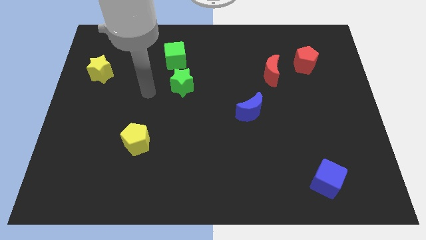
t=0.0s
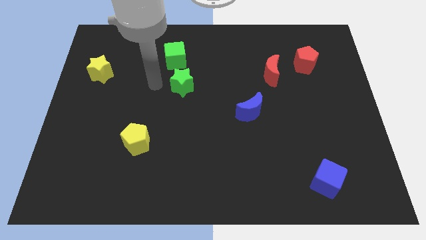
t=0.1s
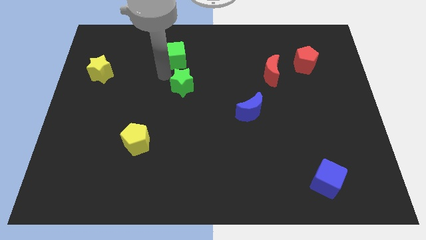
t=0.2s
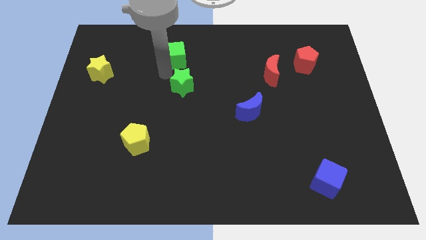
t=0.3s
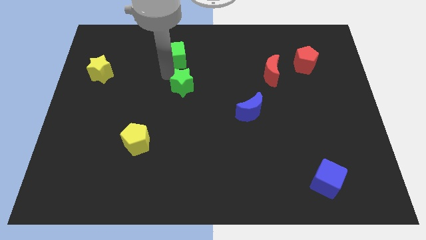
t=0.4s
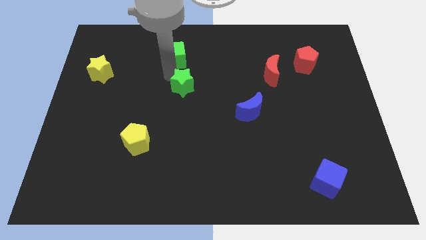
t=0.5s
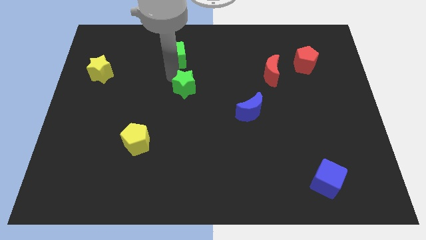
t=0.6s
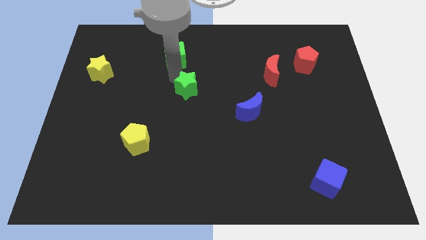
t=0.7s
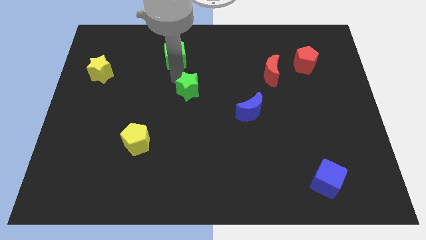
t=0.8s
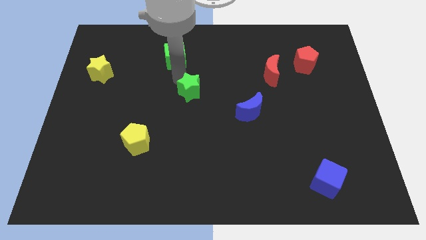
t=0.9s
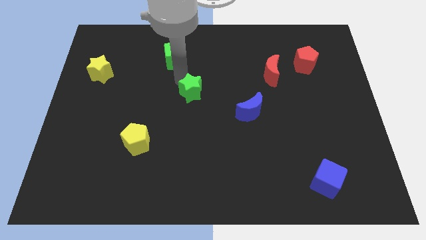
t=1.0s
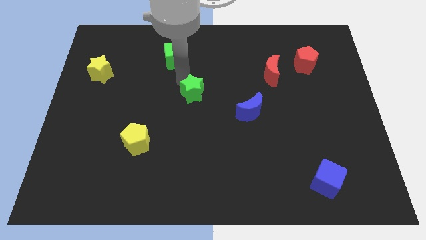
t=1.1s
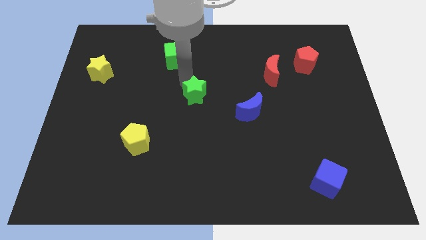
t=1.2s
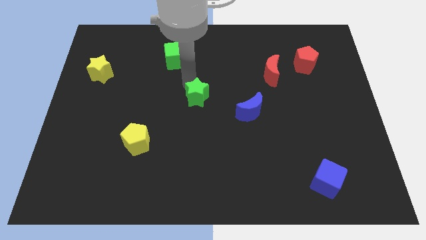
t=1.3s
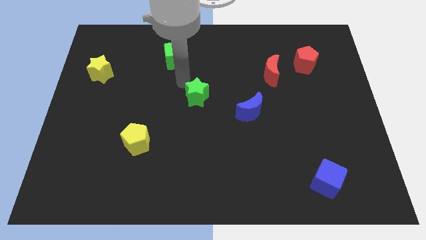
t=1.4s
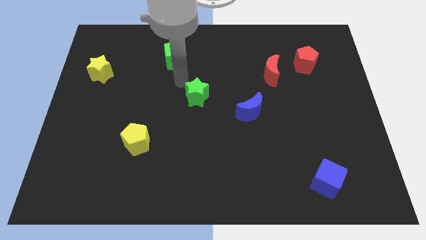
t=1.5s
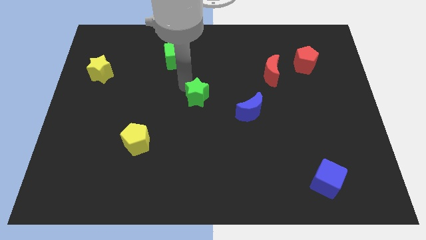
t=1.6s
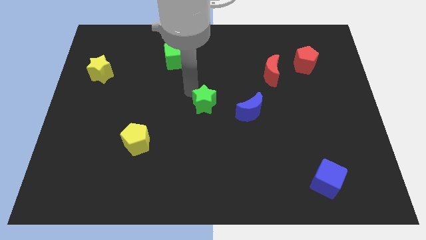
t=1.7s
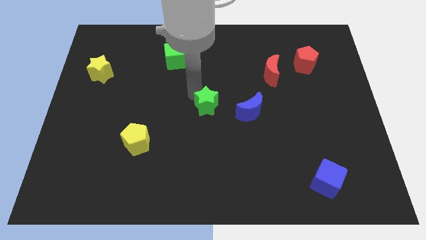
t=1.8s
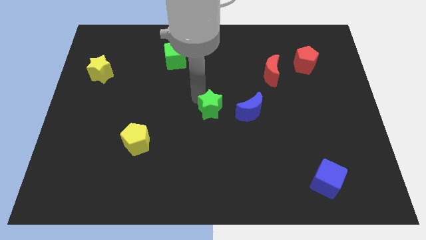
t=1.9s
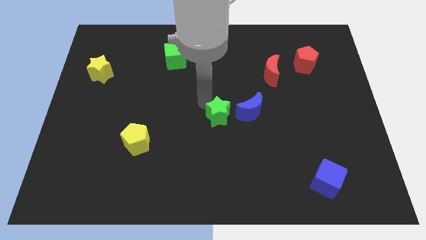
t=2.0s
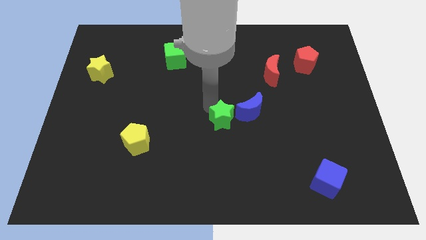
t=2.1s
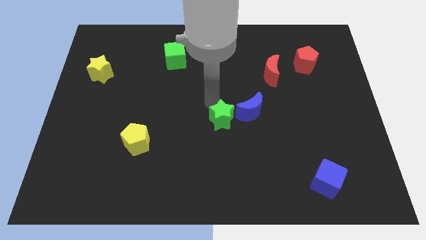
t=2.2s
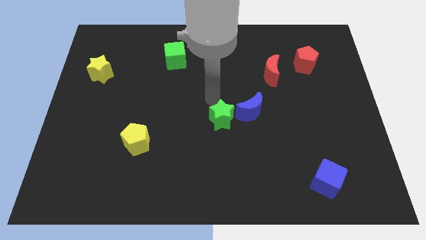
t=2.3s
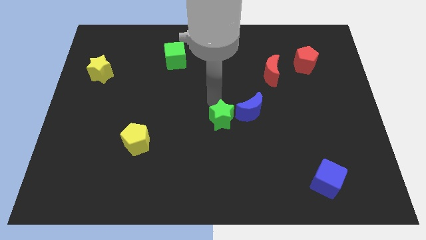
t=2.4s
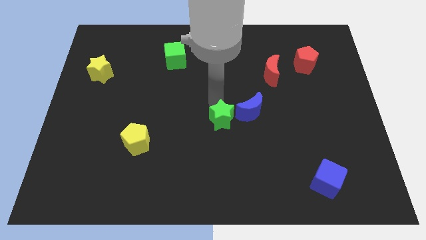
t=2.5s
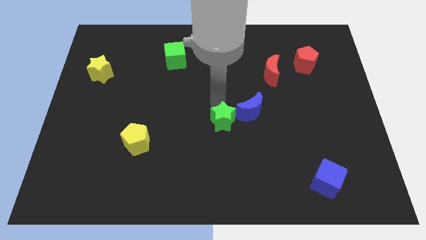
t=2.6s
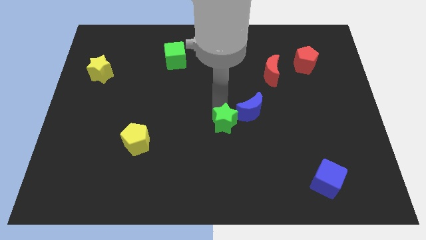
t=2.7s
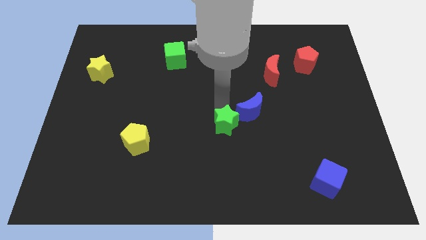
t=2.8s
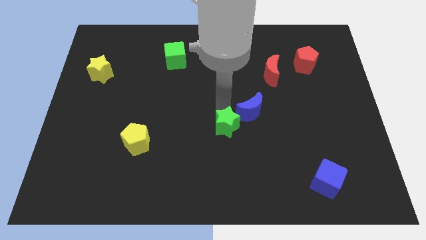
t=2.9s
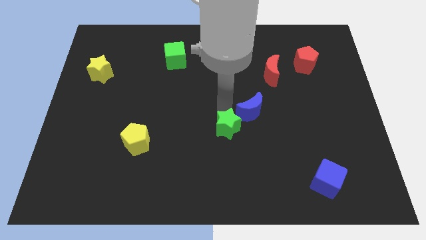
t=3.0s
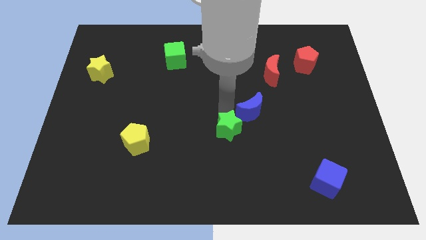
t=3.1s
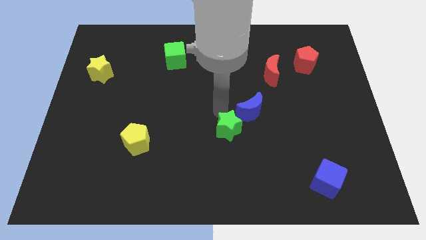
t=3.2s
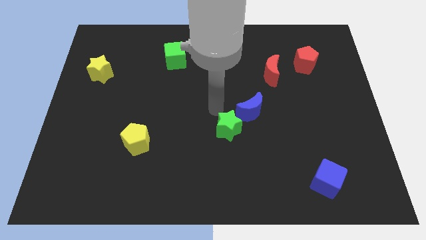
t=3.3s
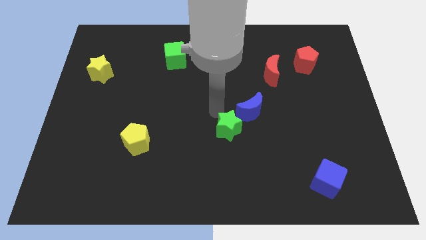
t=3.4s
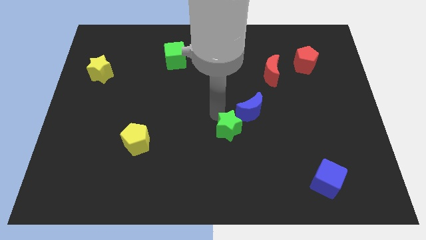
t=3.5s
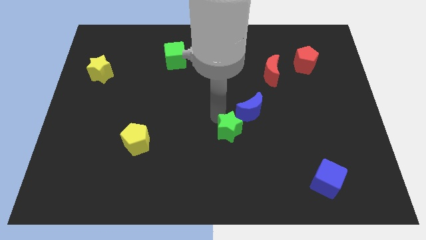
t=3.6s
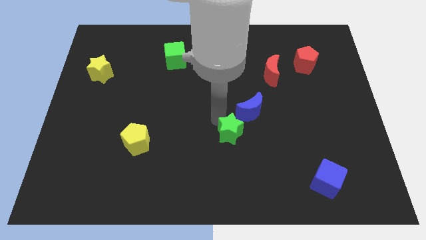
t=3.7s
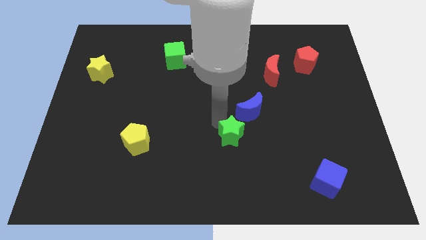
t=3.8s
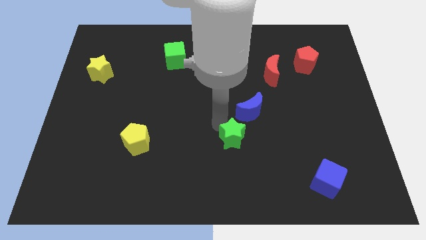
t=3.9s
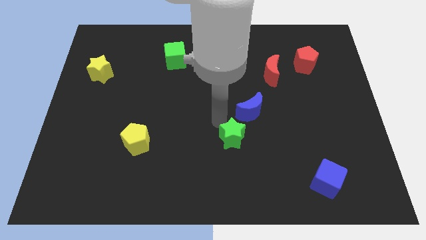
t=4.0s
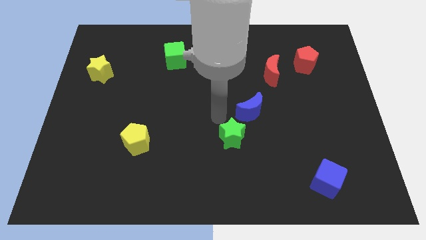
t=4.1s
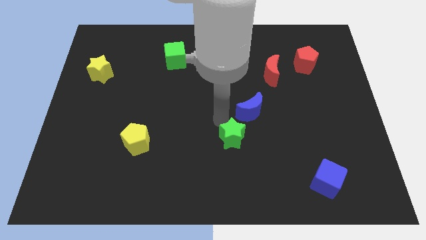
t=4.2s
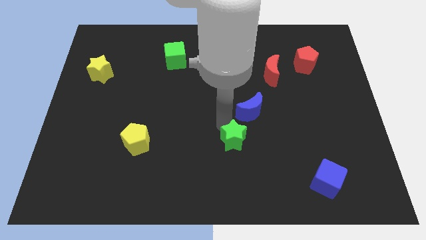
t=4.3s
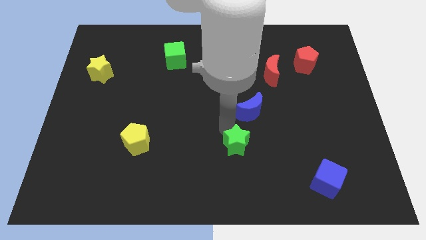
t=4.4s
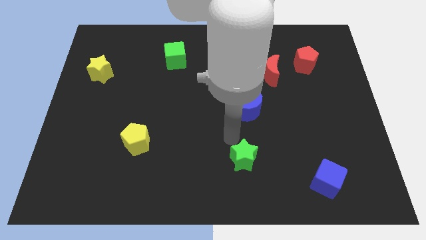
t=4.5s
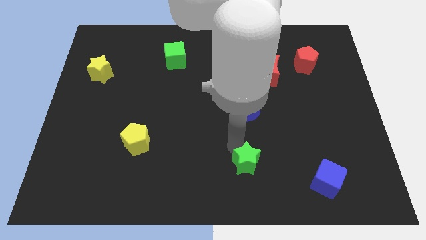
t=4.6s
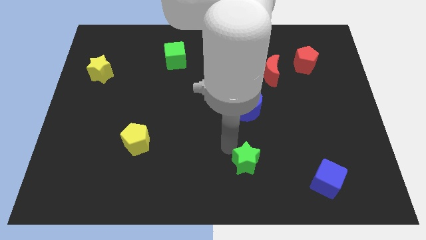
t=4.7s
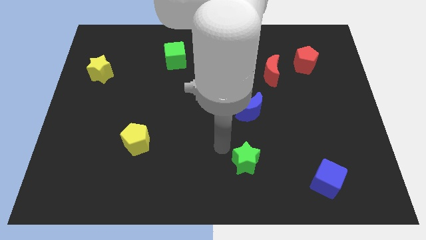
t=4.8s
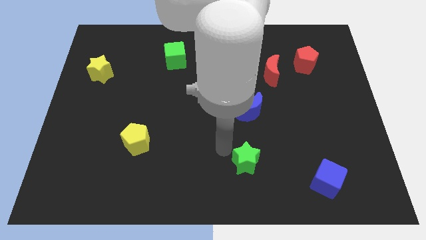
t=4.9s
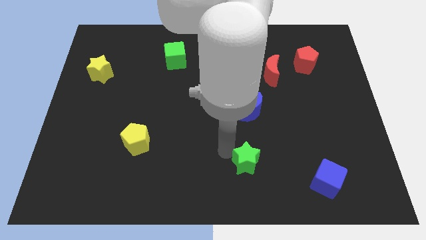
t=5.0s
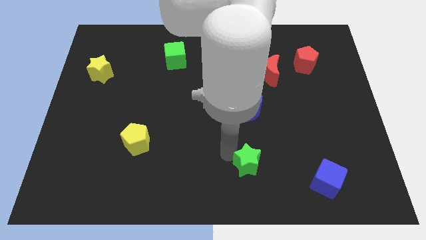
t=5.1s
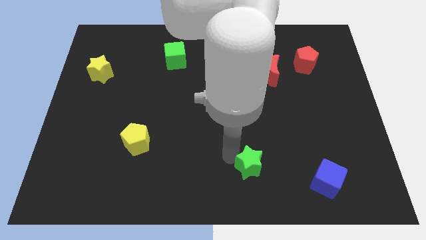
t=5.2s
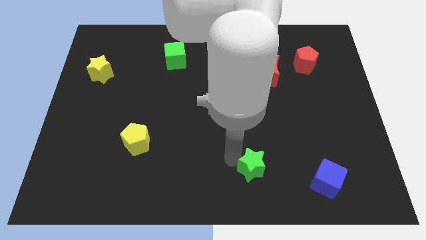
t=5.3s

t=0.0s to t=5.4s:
move the green star to the left of the blue cube

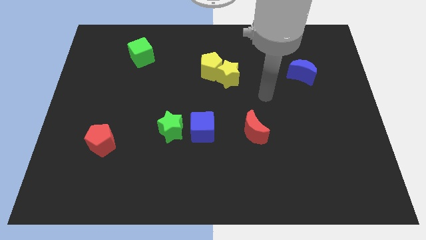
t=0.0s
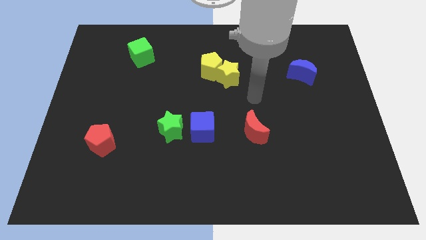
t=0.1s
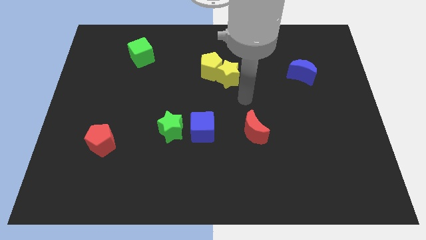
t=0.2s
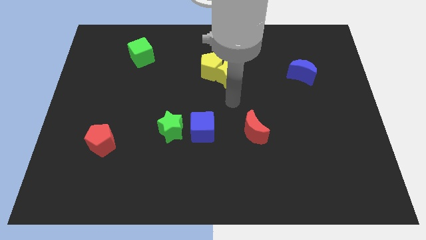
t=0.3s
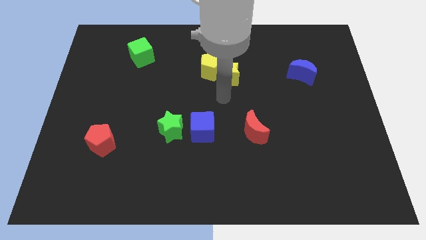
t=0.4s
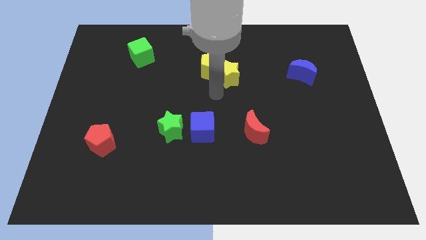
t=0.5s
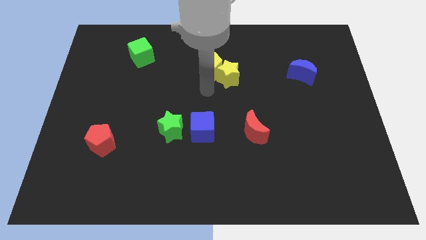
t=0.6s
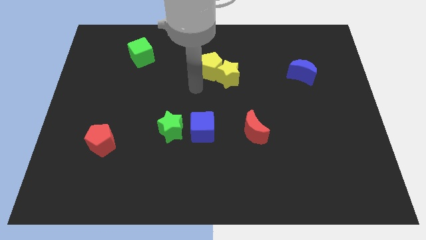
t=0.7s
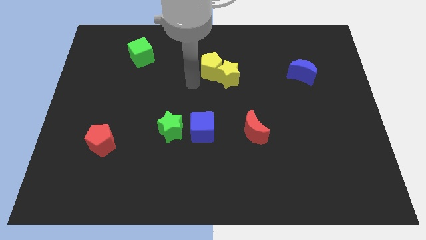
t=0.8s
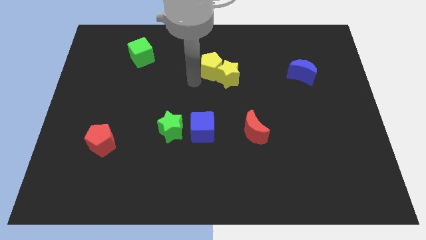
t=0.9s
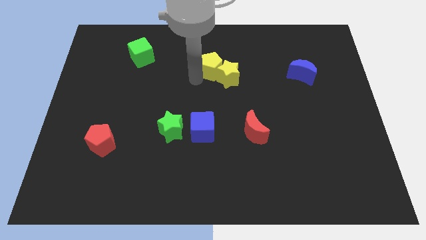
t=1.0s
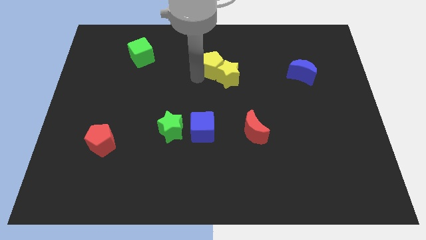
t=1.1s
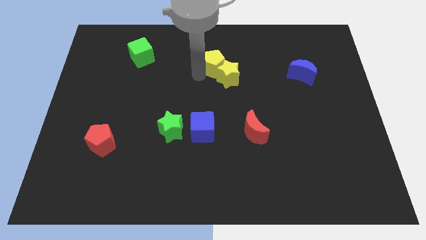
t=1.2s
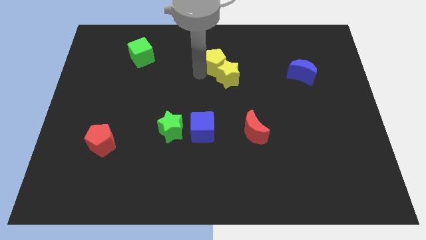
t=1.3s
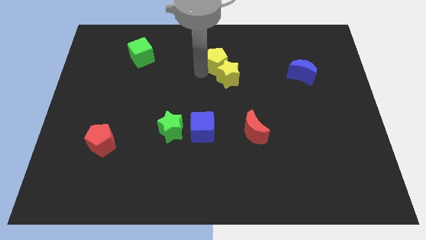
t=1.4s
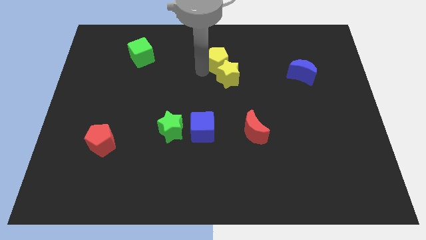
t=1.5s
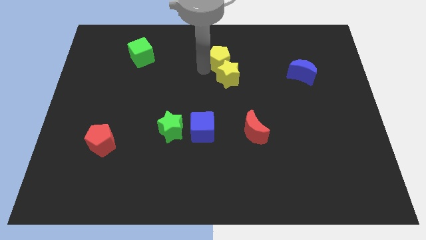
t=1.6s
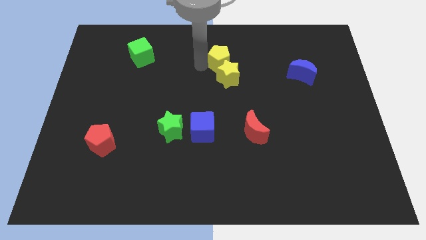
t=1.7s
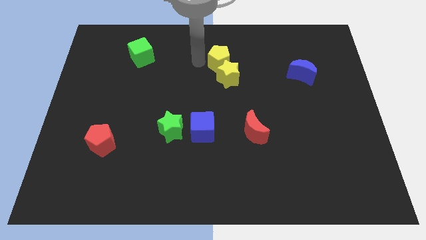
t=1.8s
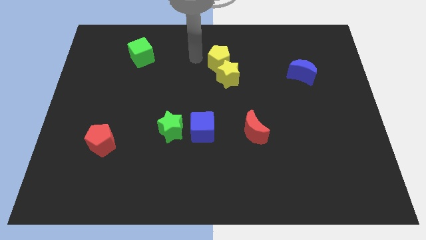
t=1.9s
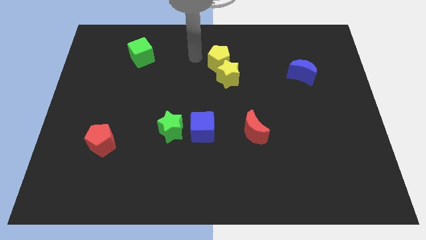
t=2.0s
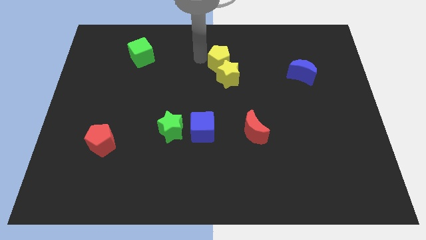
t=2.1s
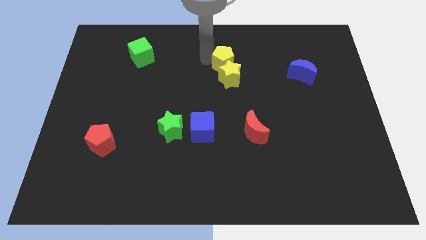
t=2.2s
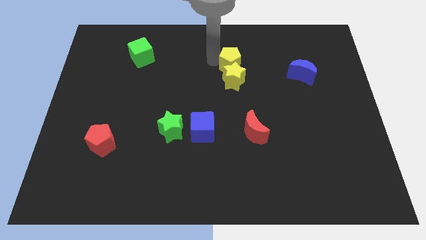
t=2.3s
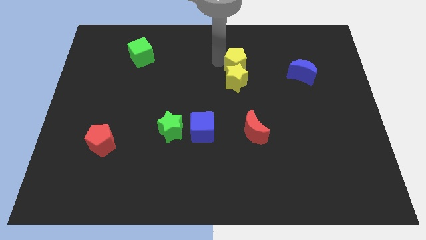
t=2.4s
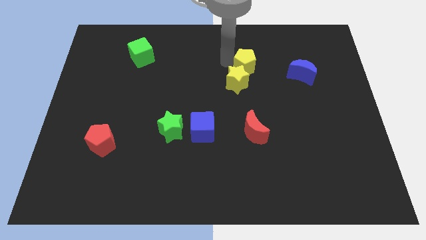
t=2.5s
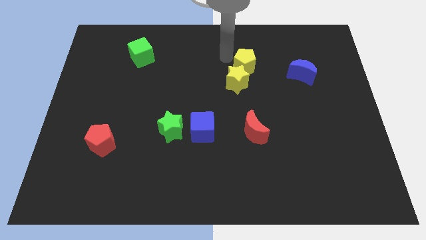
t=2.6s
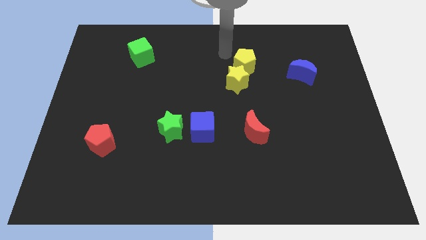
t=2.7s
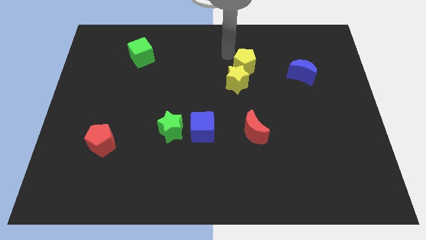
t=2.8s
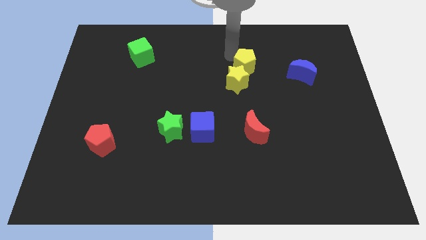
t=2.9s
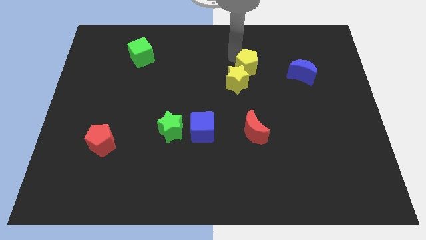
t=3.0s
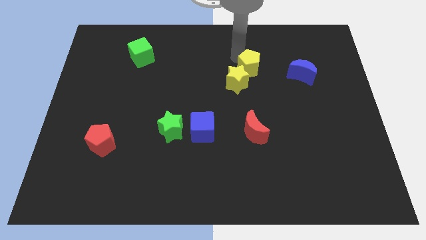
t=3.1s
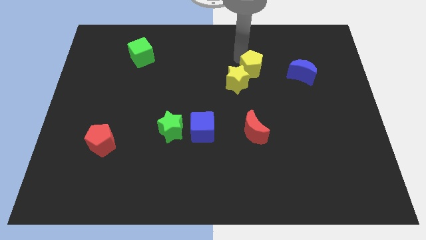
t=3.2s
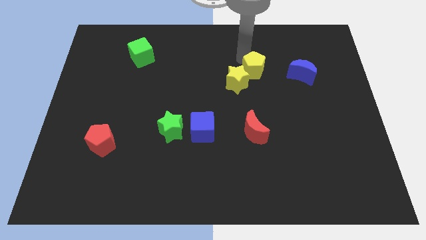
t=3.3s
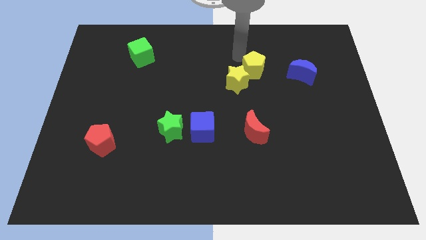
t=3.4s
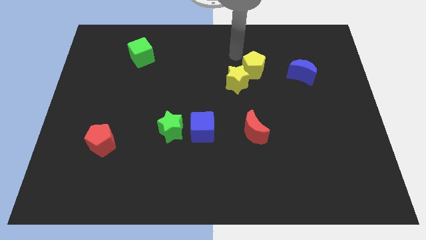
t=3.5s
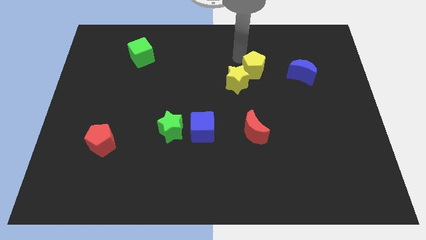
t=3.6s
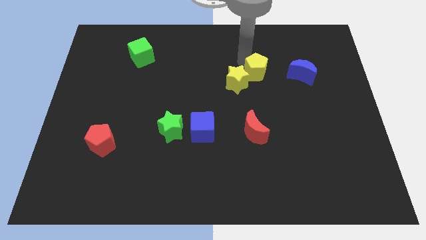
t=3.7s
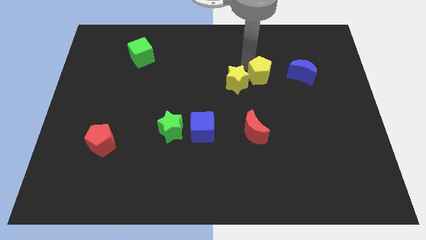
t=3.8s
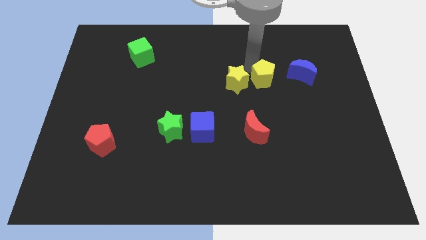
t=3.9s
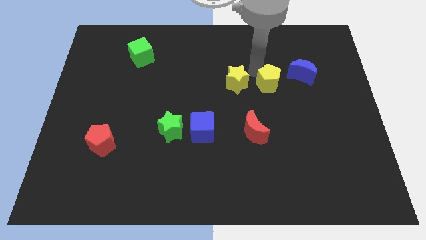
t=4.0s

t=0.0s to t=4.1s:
slide the yellow pentagon diagonally down and to the left of the blue moon
